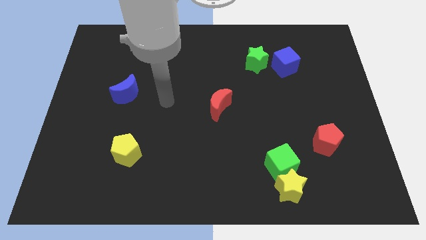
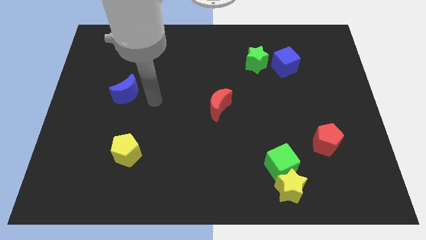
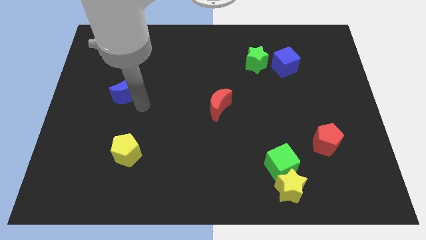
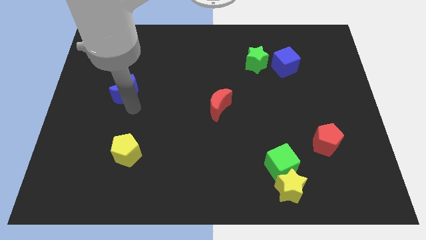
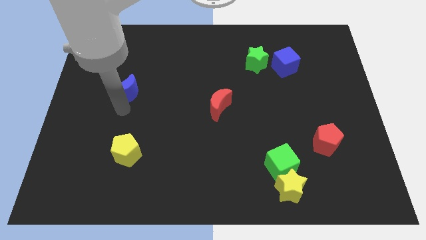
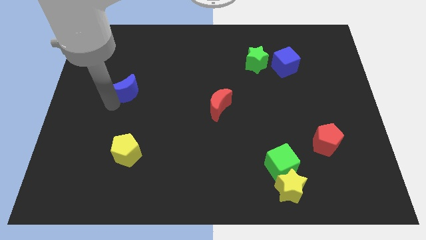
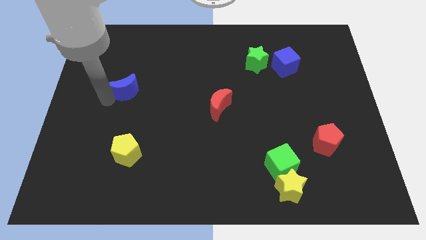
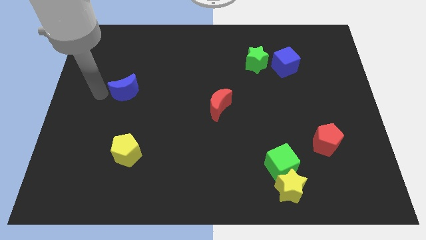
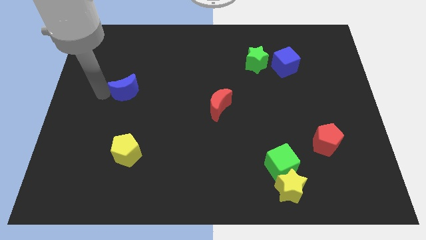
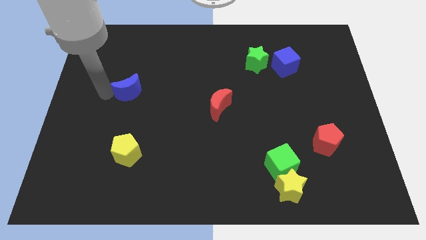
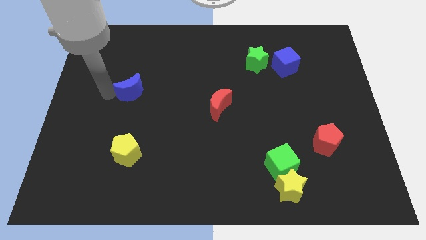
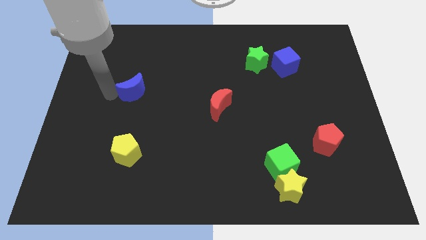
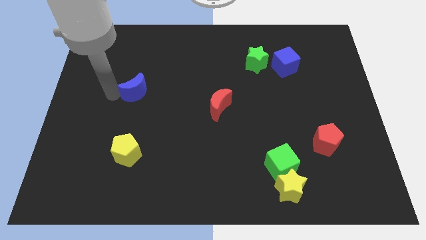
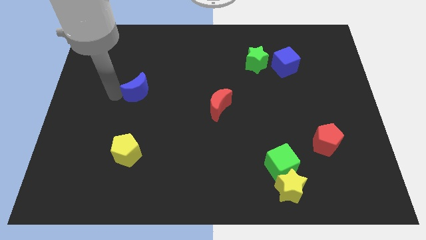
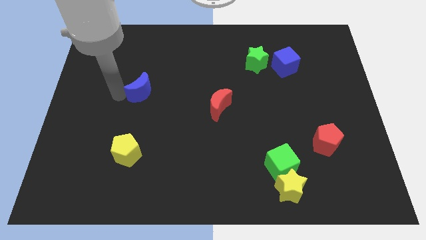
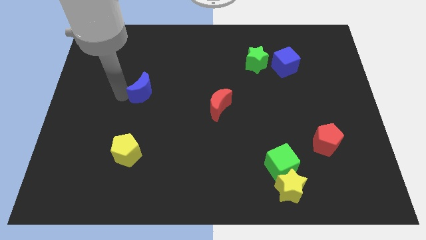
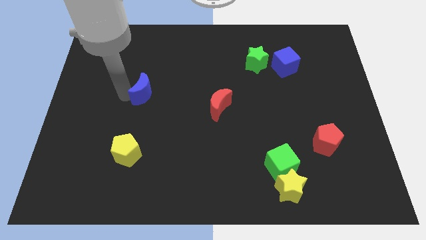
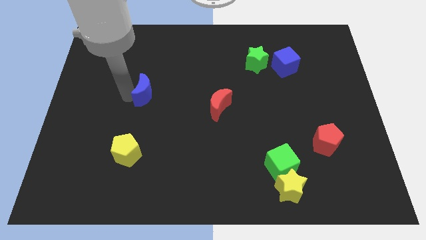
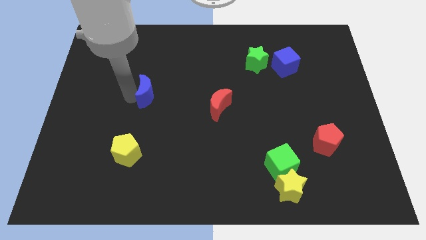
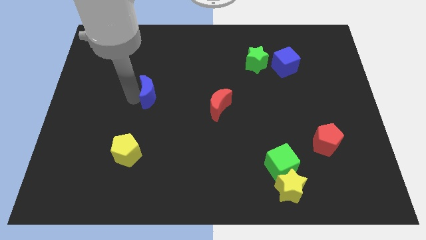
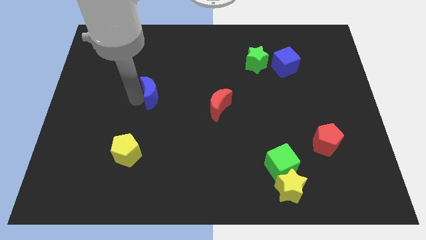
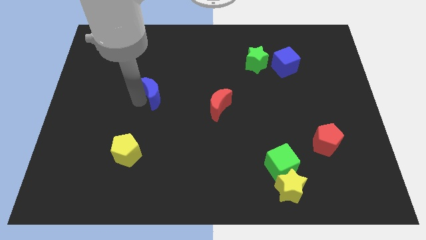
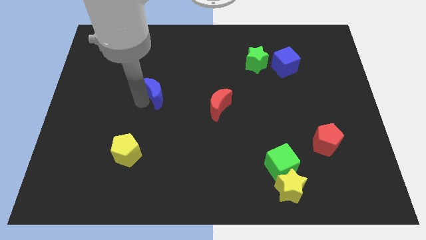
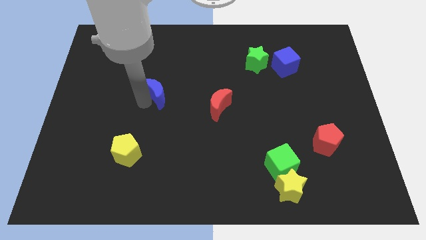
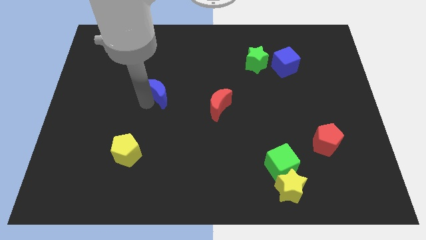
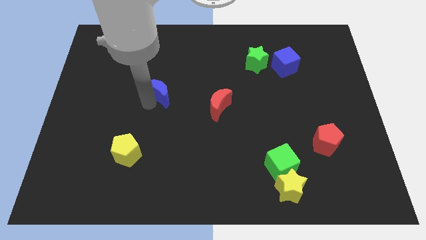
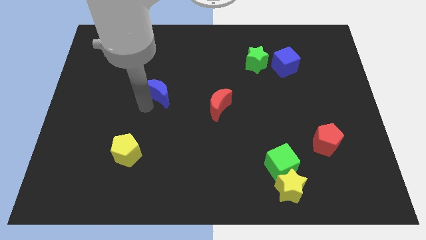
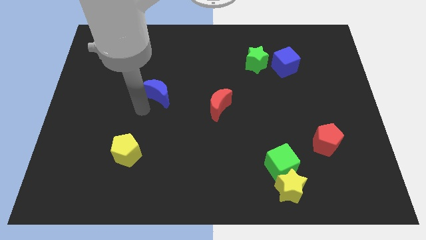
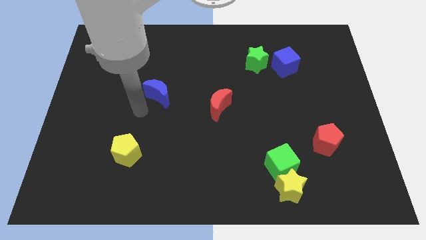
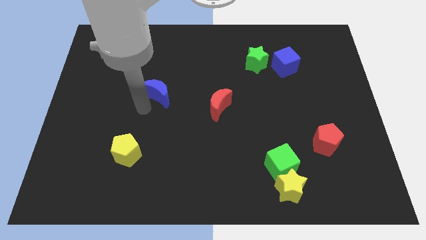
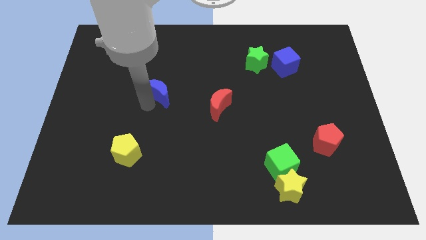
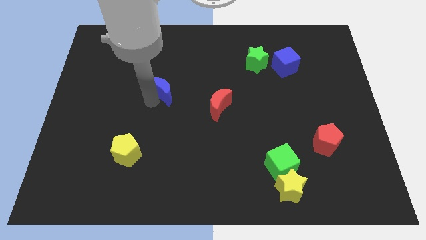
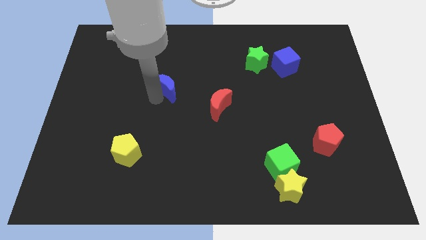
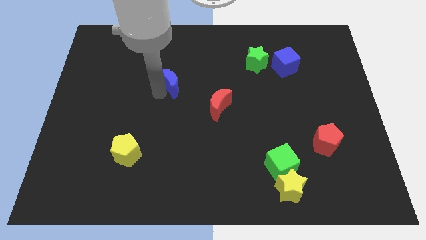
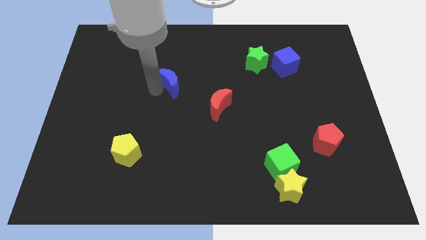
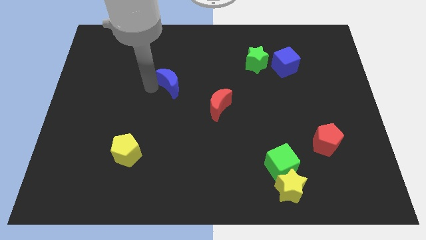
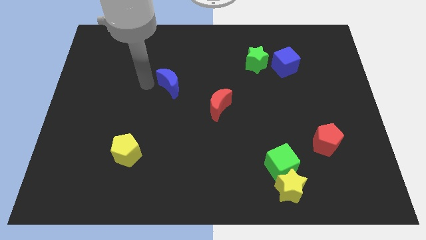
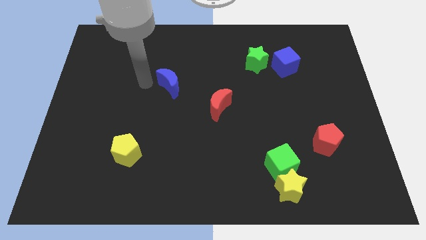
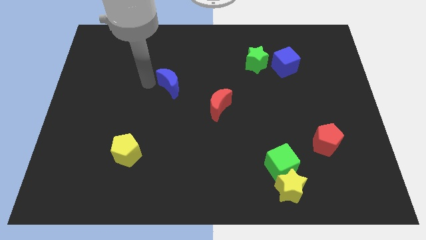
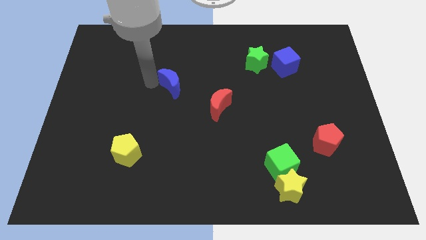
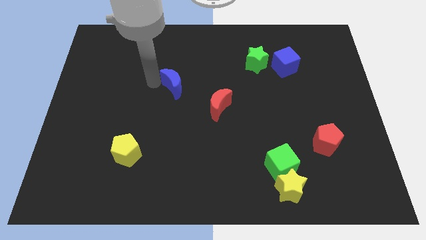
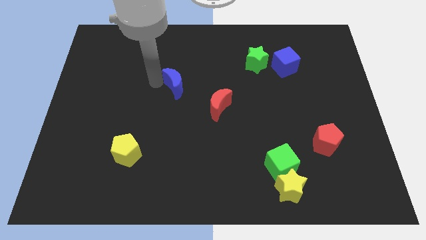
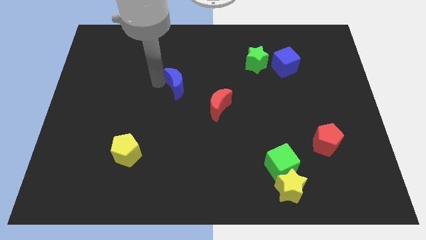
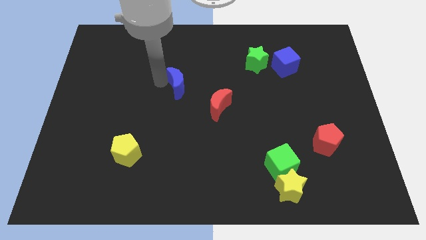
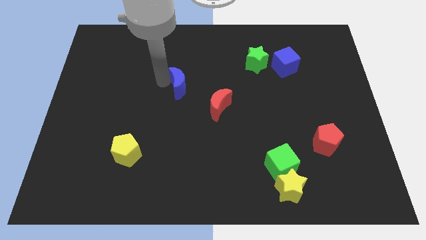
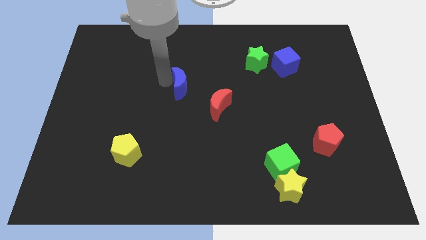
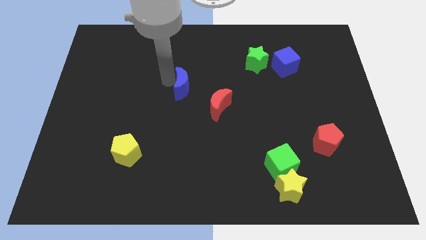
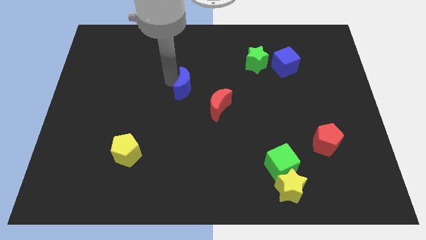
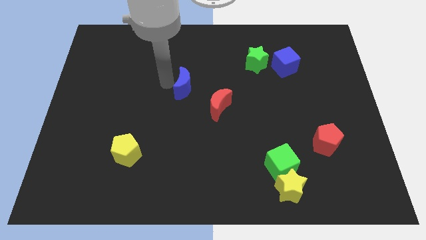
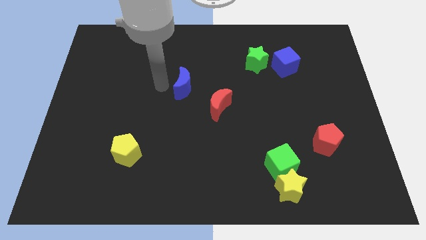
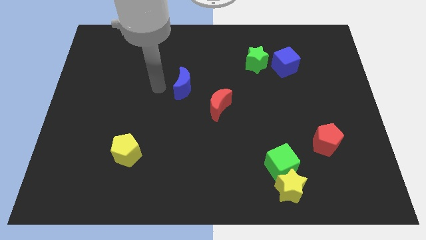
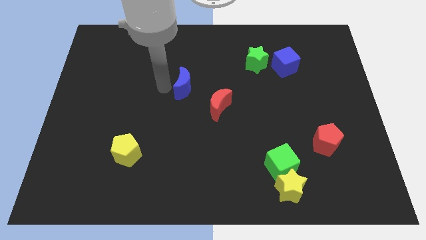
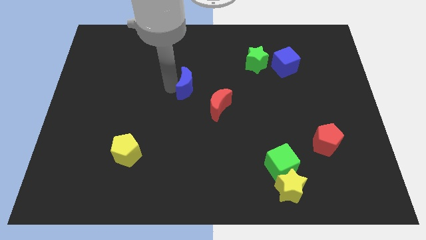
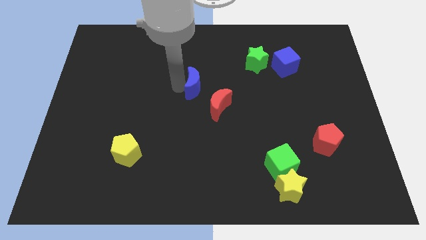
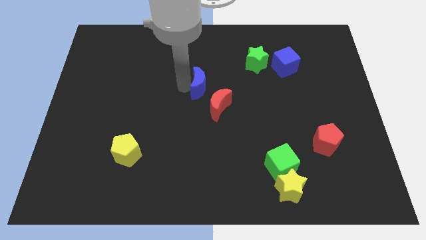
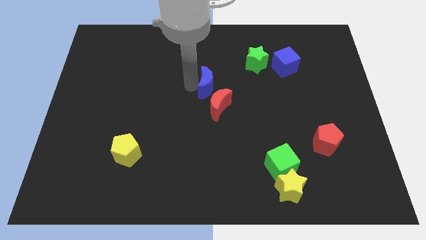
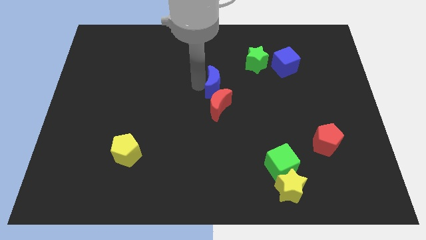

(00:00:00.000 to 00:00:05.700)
slide the blue moon right

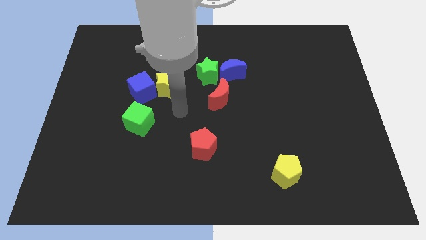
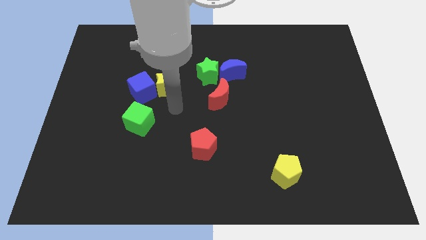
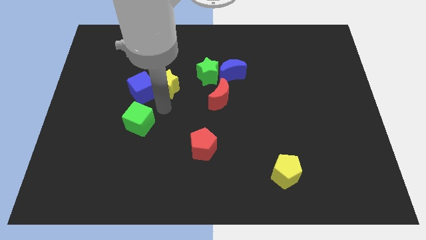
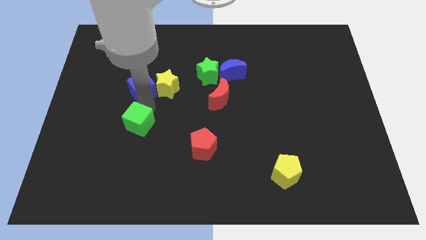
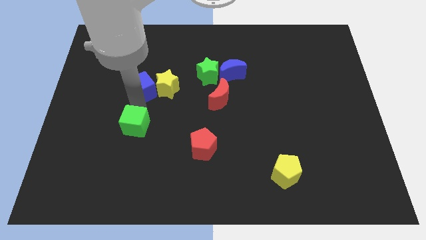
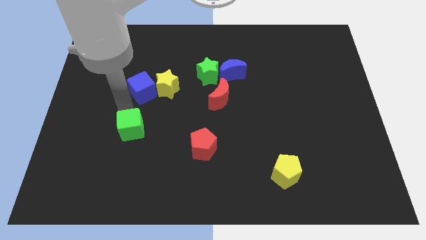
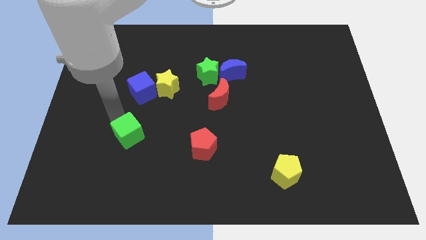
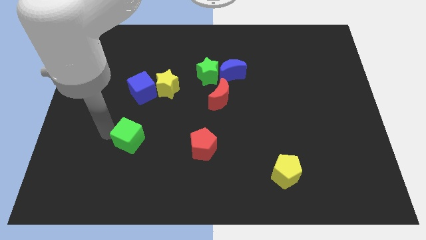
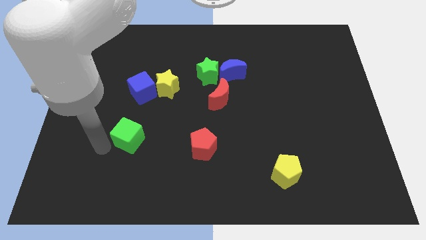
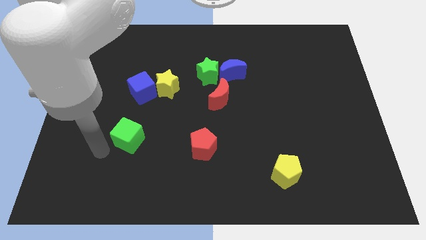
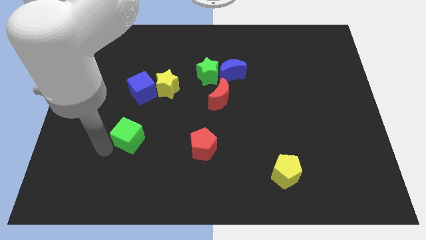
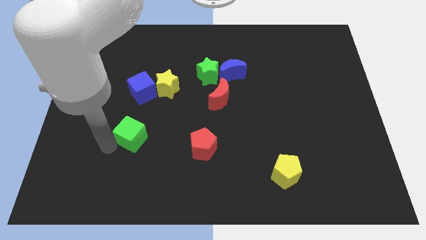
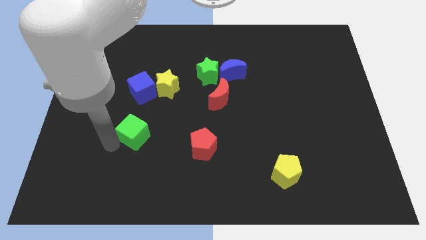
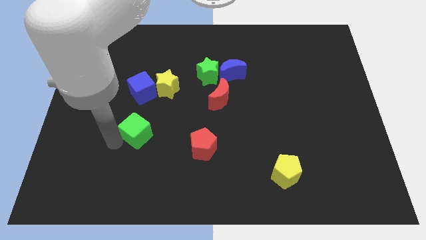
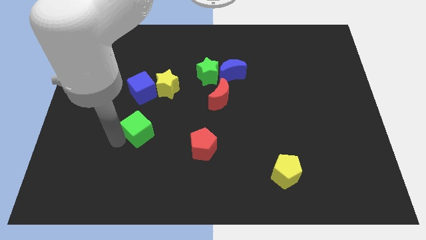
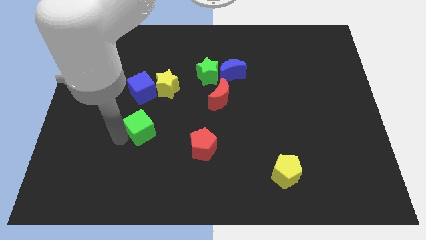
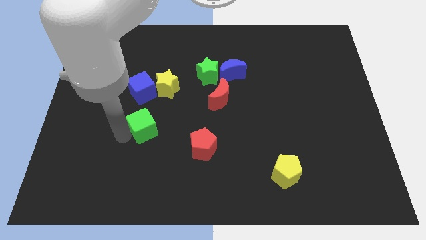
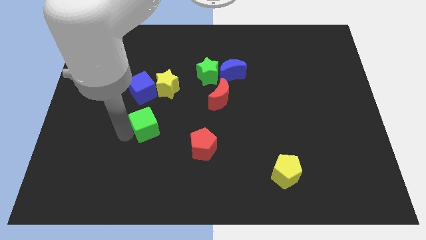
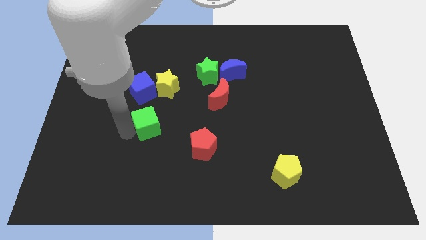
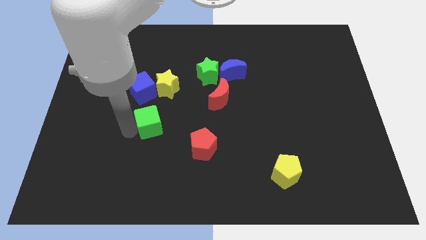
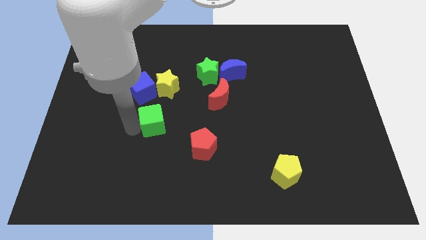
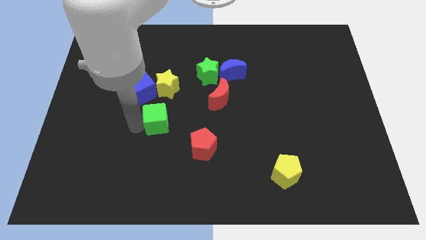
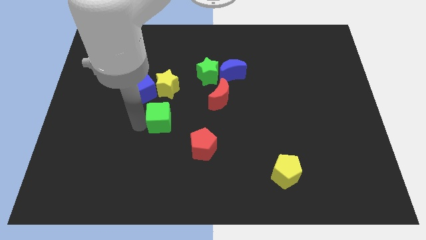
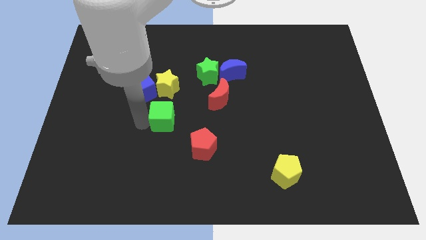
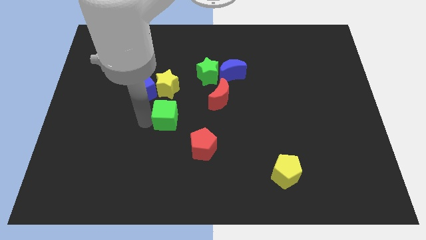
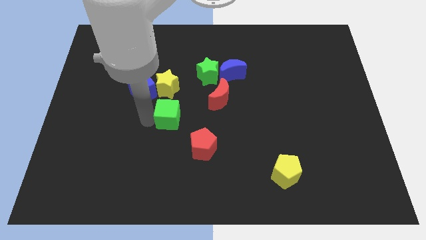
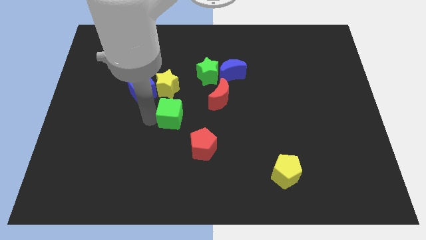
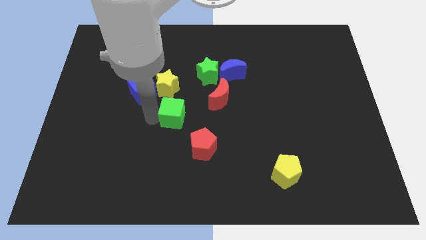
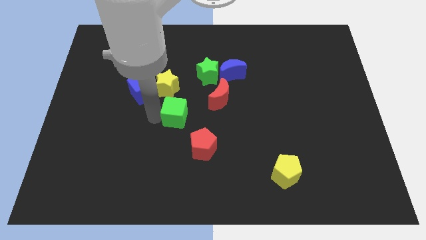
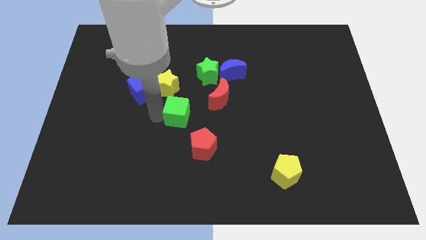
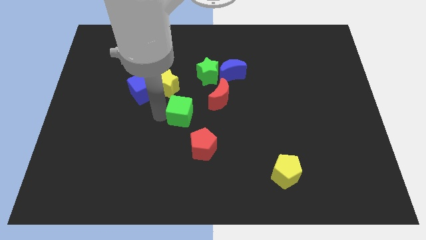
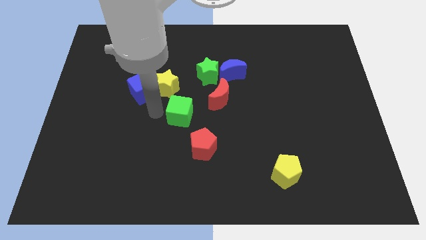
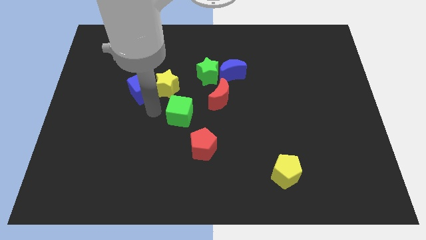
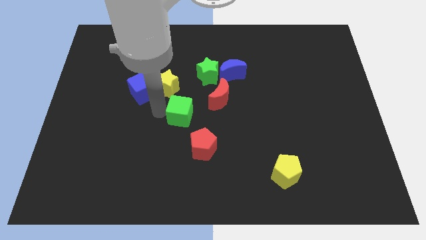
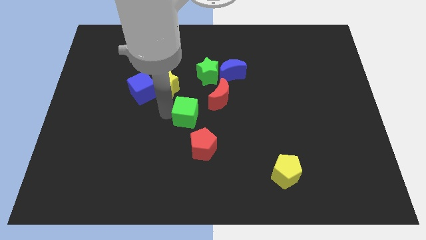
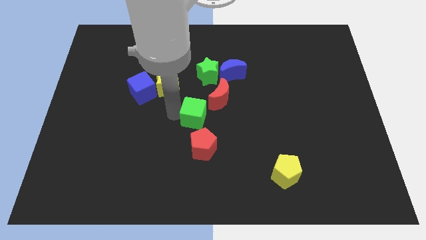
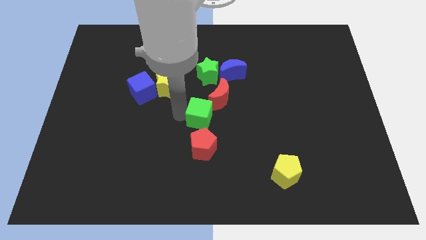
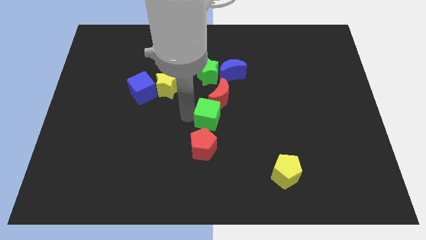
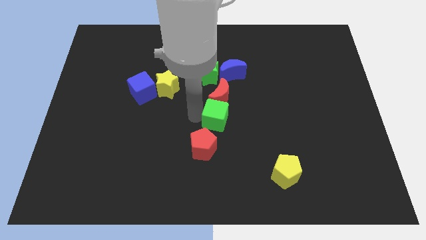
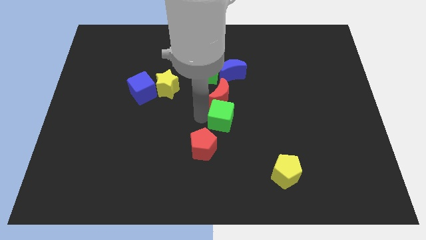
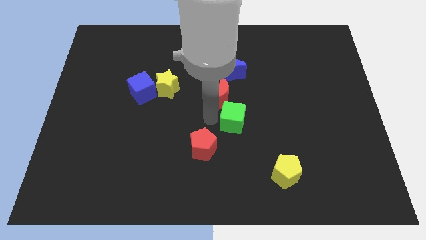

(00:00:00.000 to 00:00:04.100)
move the green cube right
